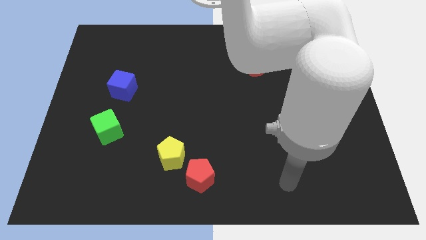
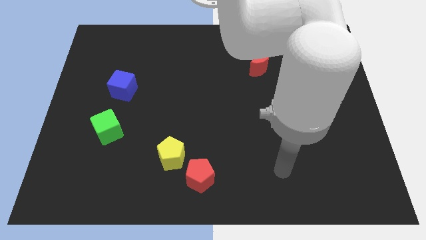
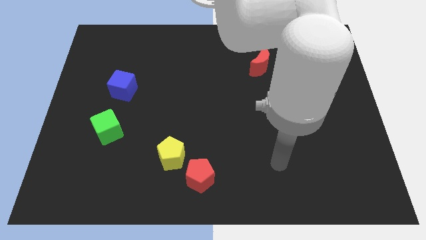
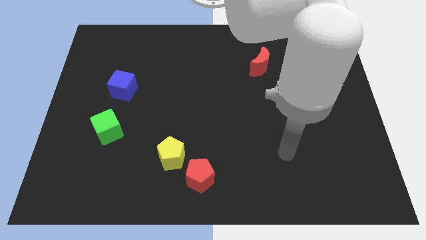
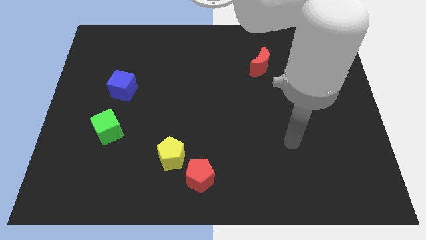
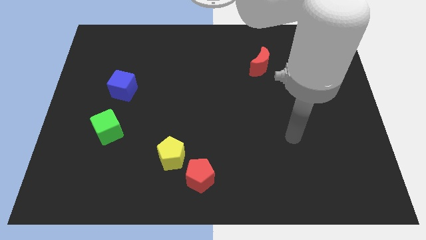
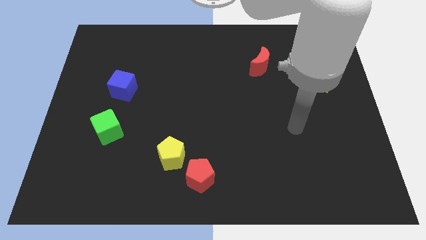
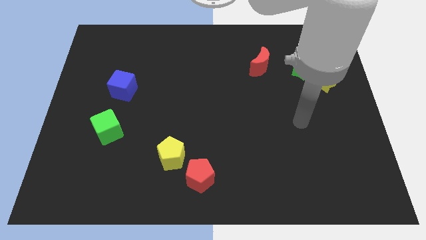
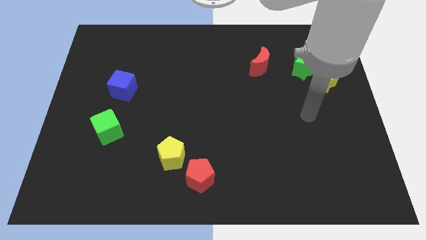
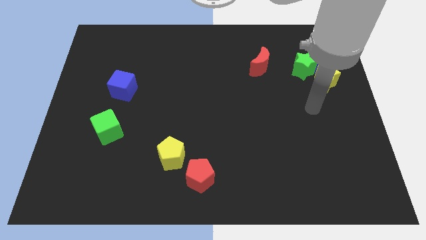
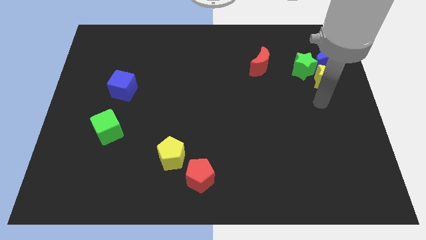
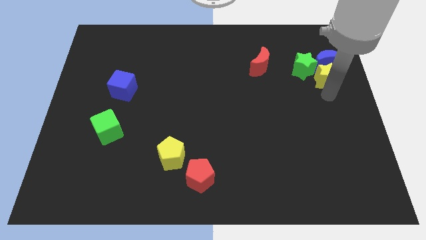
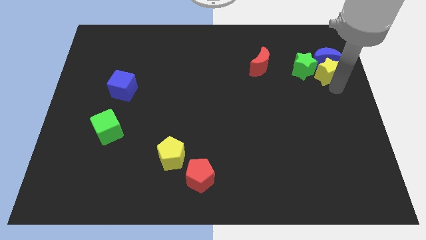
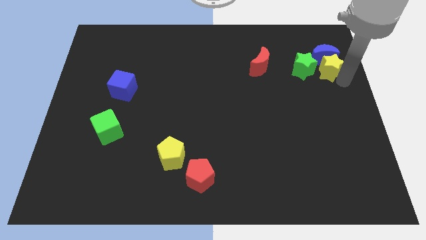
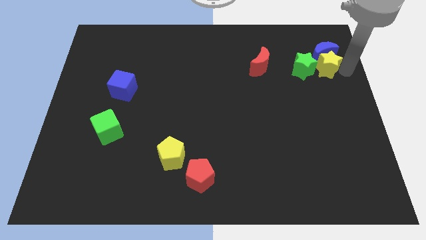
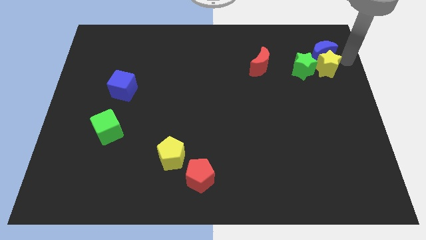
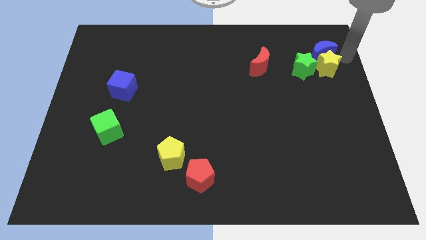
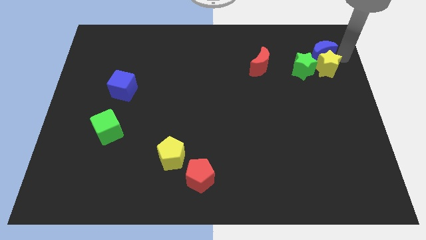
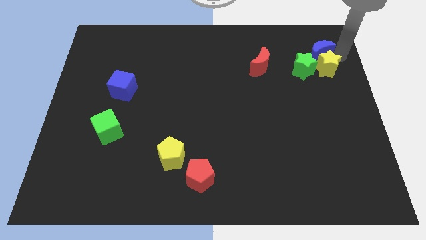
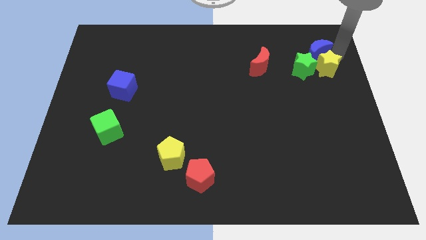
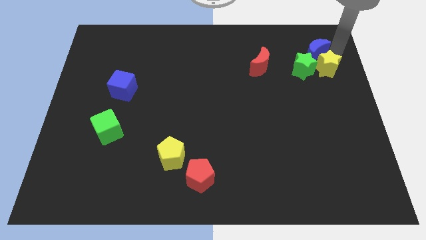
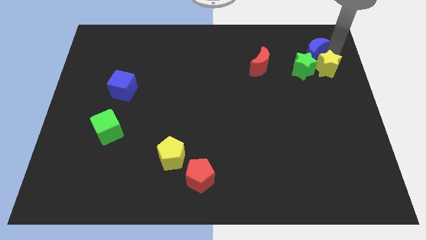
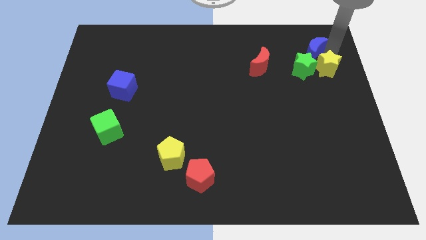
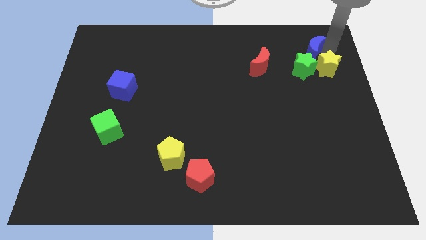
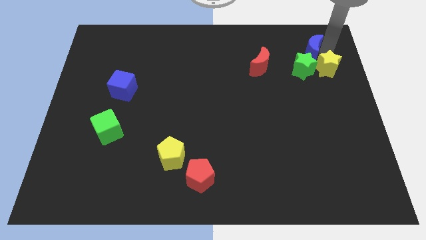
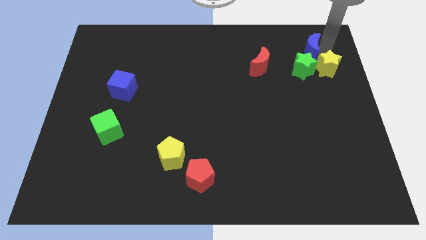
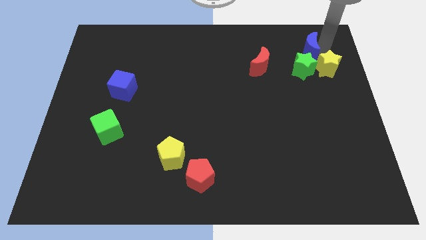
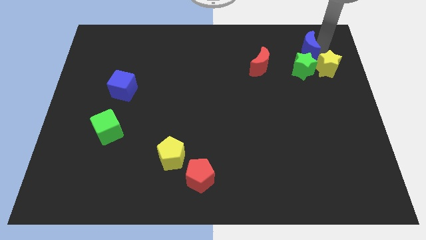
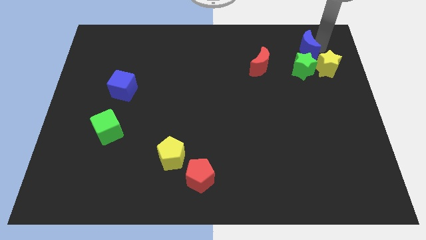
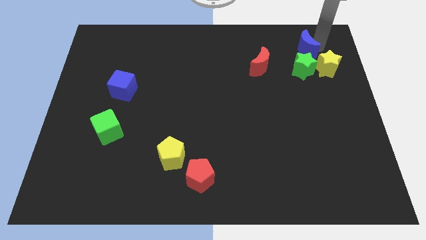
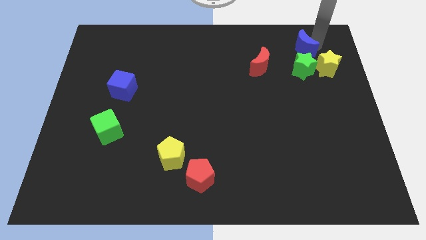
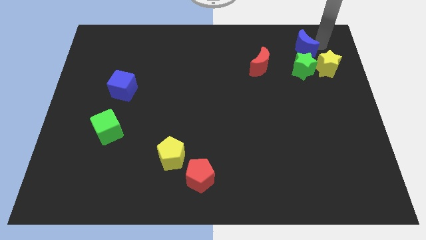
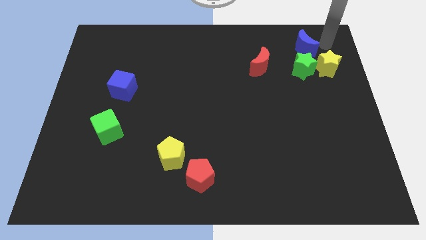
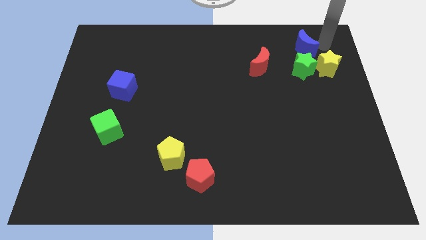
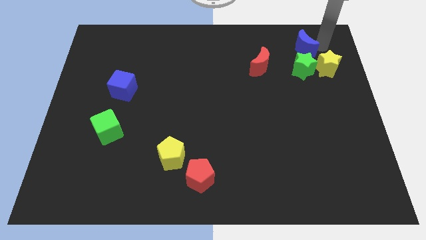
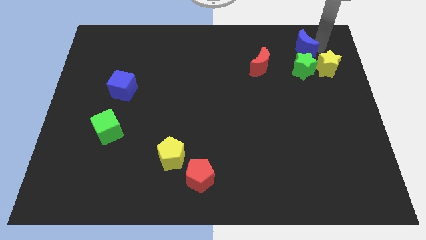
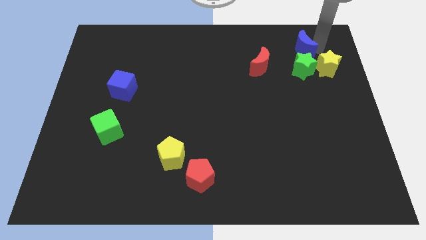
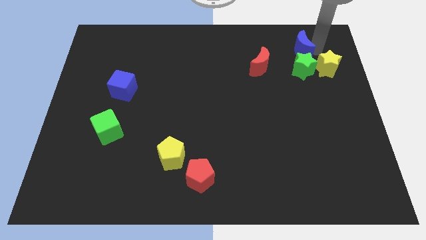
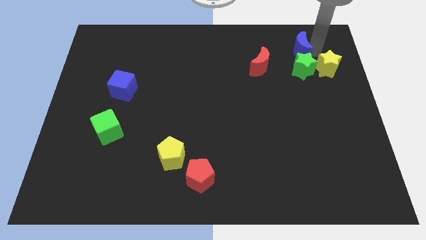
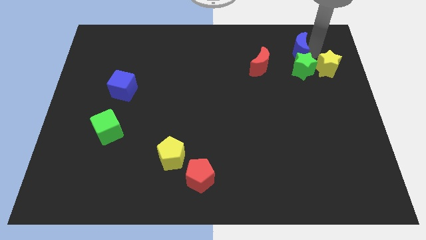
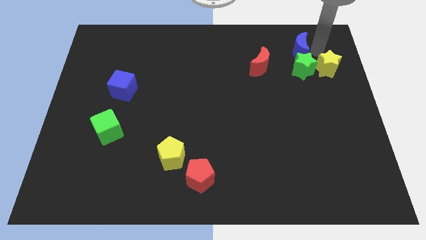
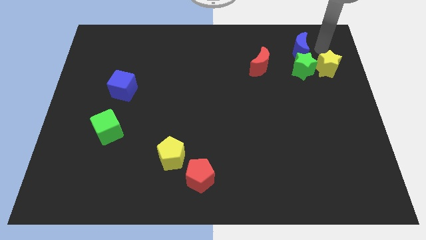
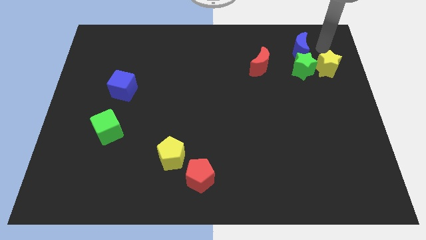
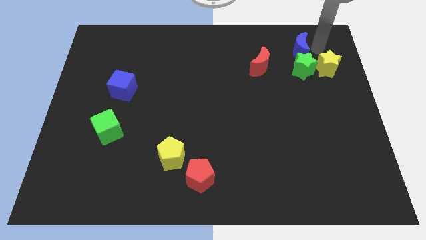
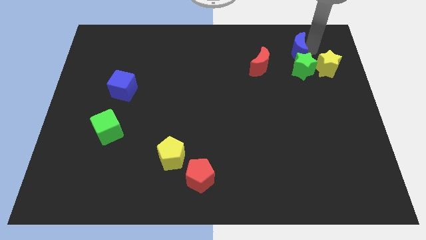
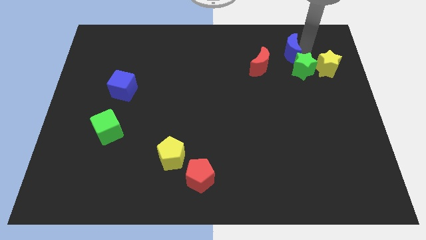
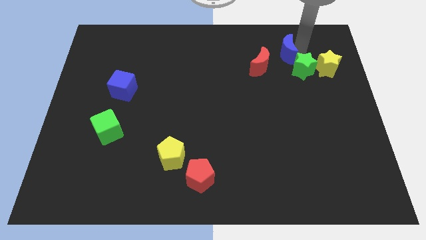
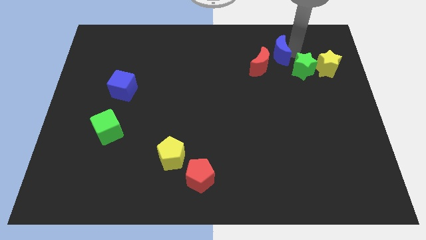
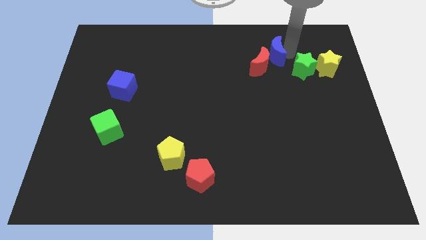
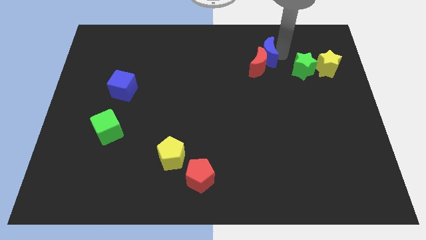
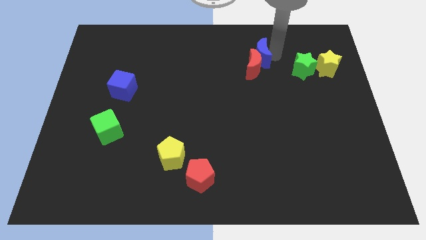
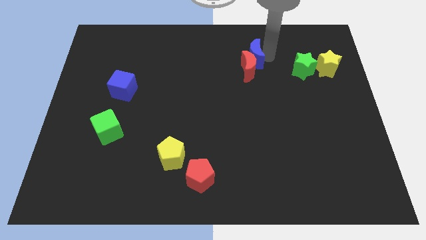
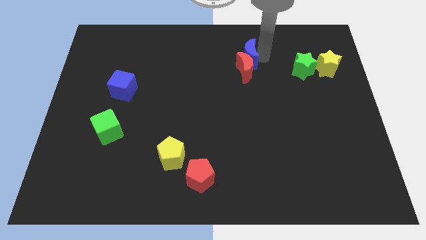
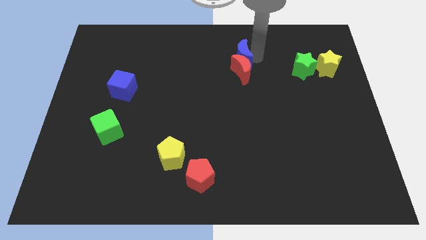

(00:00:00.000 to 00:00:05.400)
slide the blue moon to the left

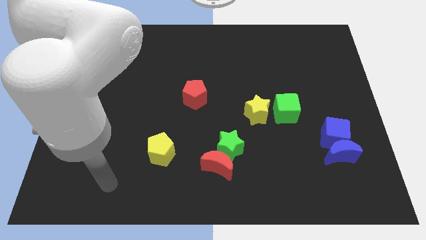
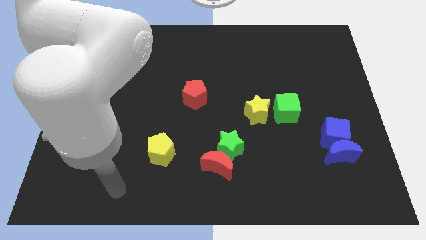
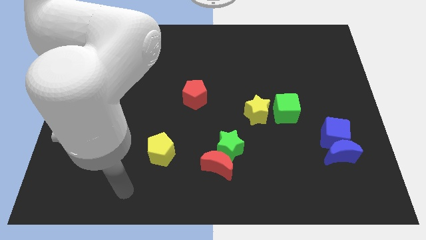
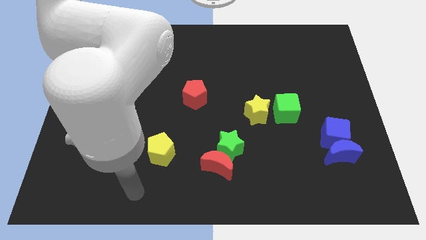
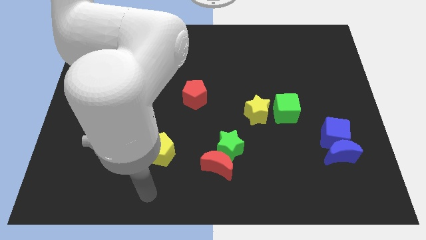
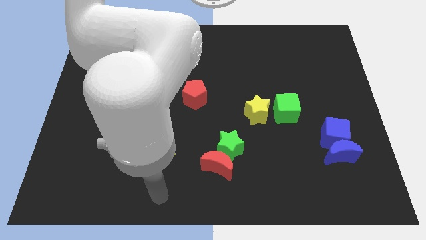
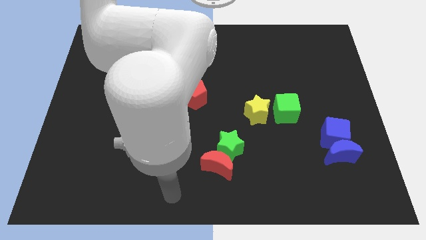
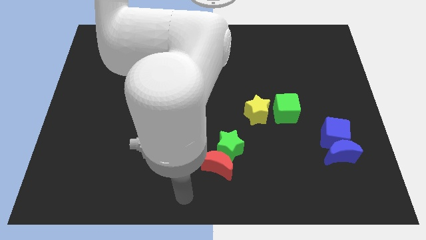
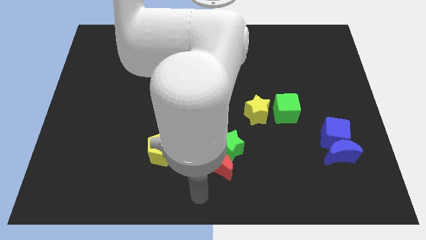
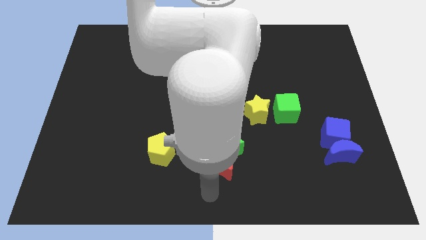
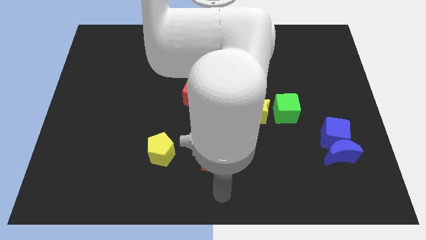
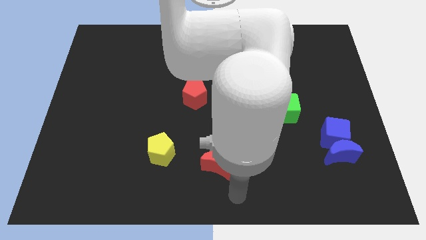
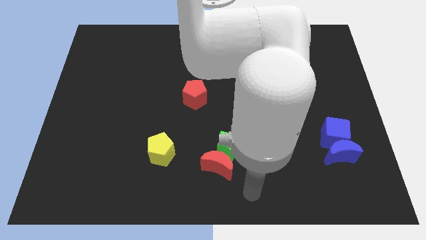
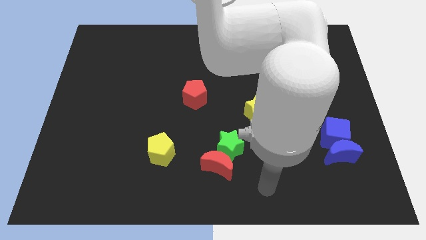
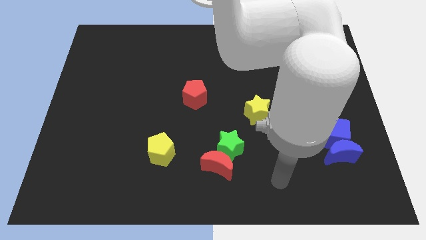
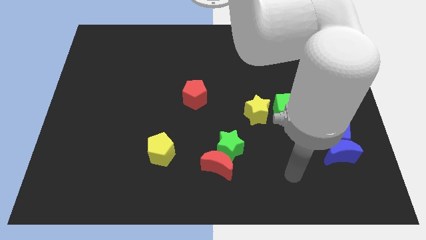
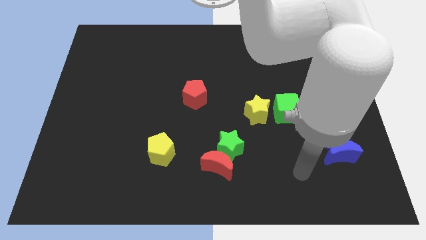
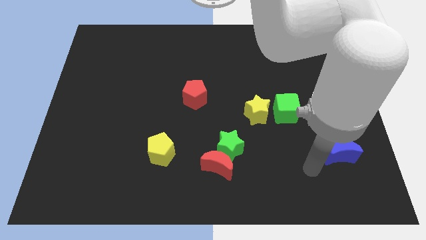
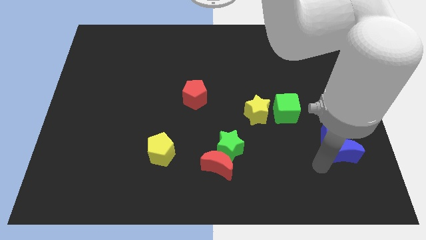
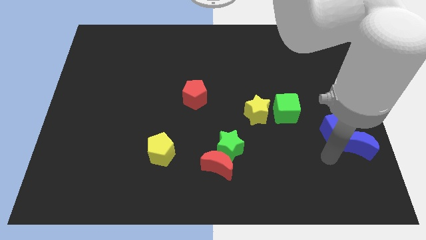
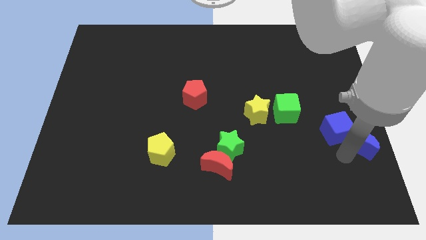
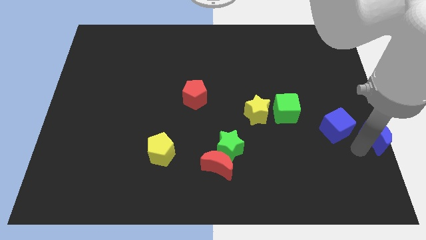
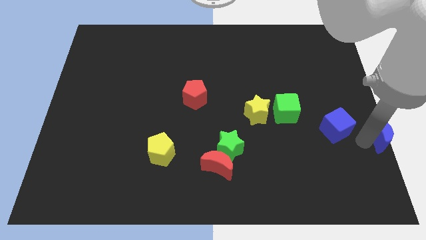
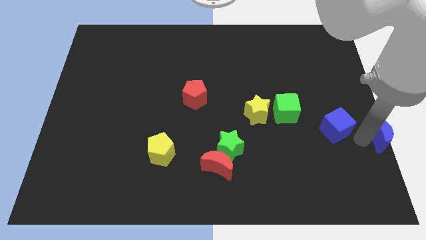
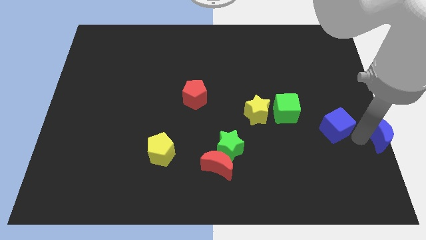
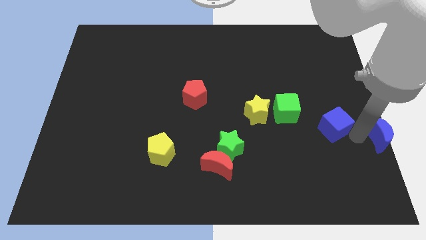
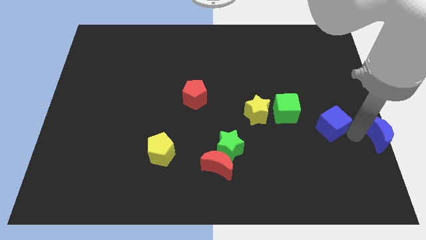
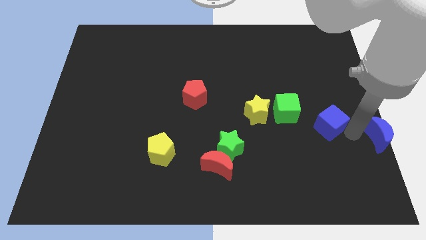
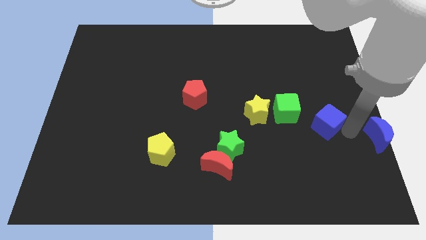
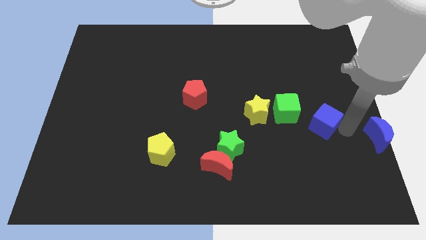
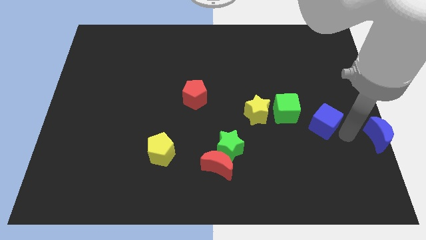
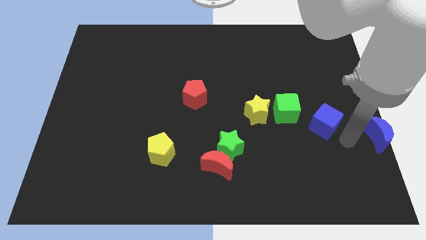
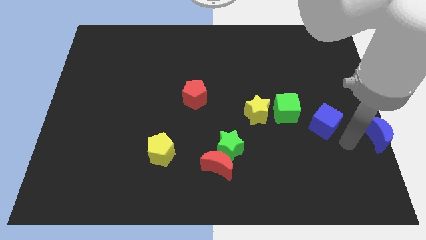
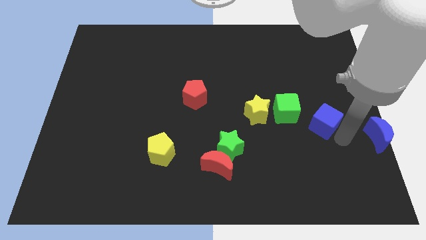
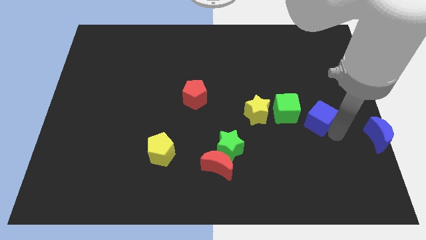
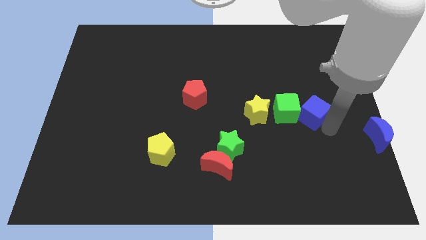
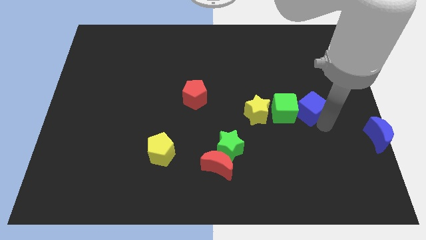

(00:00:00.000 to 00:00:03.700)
slide the blue cube a little upwards and then to the left
